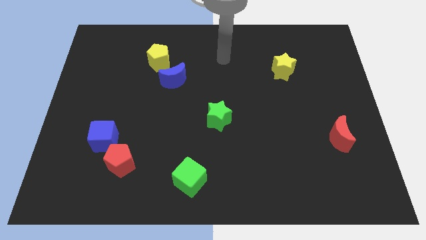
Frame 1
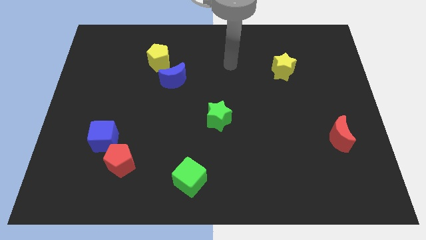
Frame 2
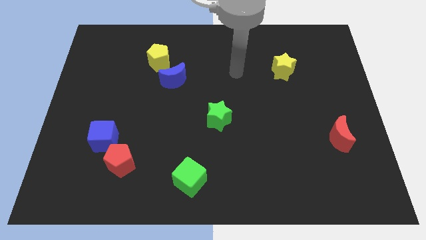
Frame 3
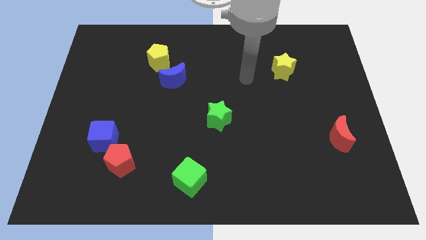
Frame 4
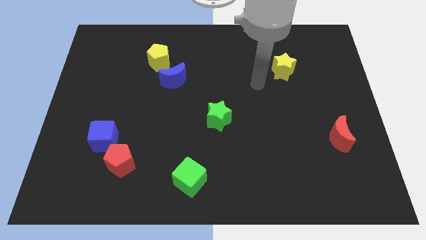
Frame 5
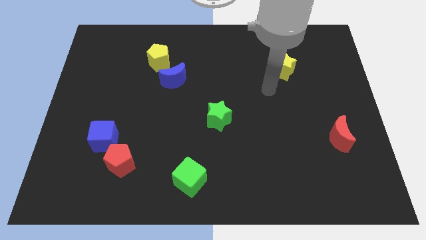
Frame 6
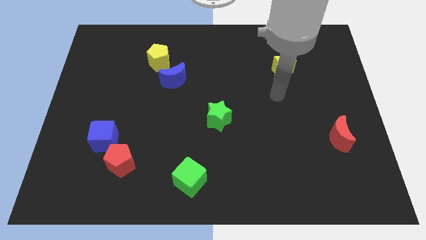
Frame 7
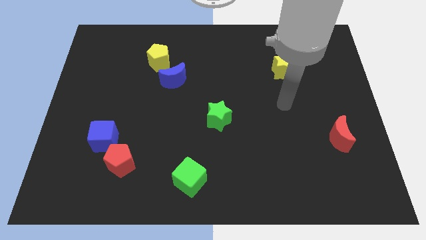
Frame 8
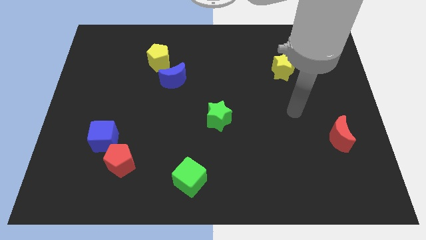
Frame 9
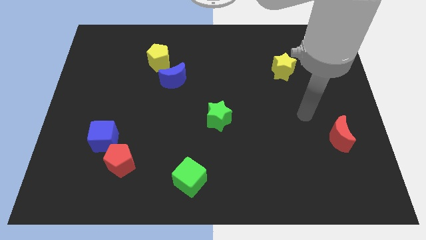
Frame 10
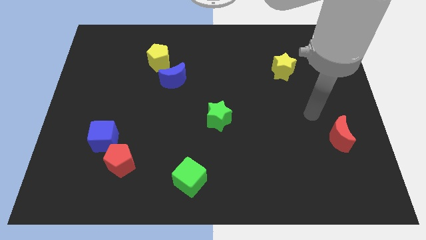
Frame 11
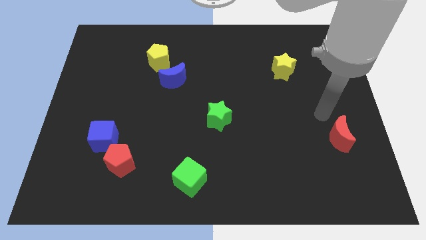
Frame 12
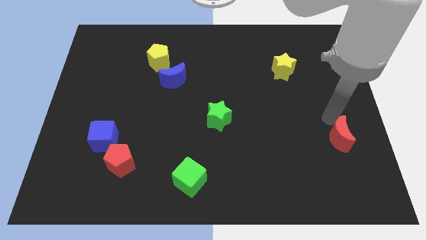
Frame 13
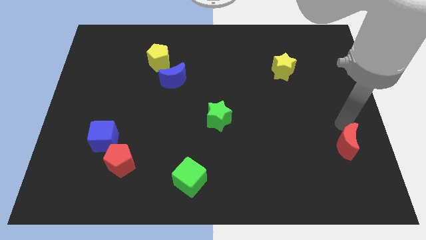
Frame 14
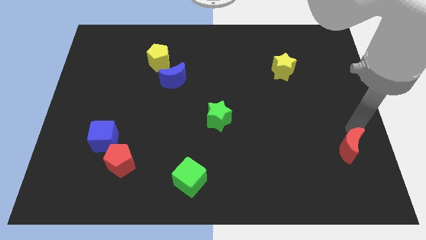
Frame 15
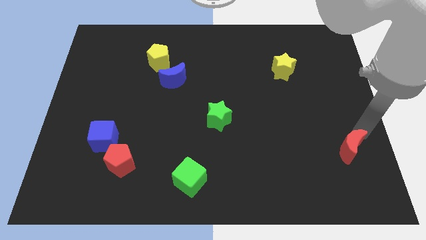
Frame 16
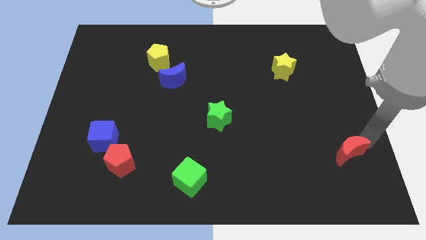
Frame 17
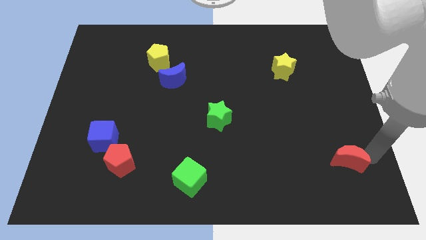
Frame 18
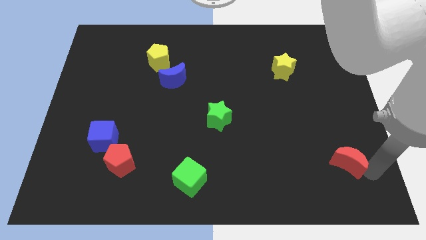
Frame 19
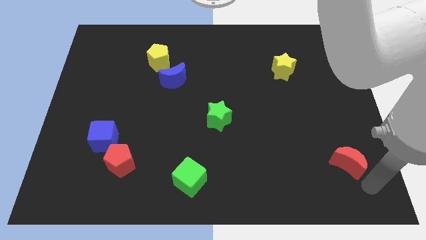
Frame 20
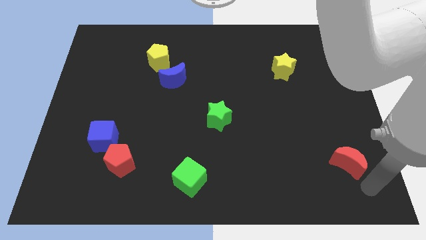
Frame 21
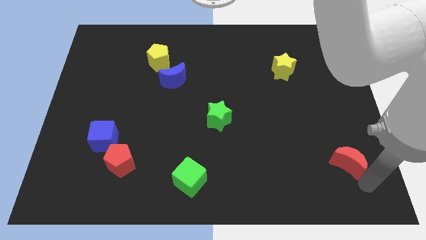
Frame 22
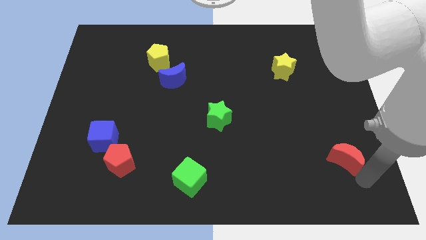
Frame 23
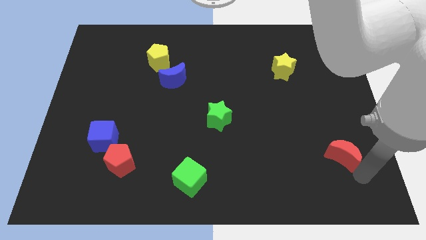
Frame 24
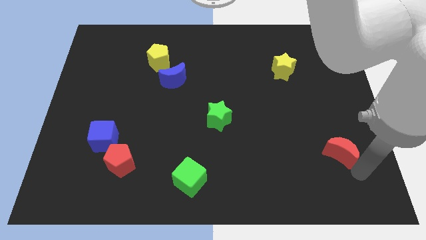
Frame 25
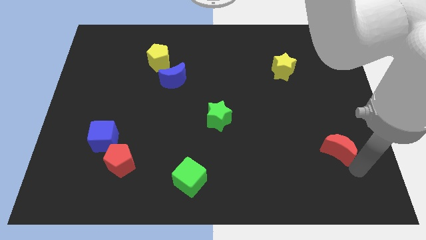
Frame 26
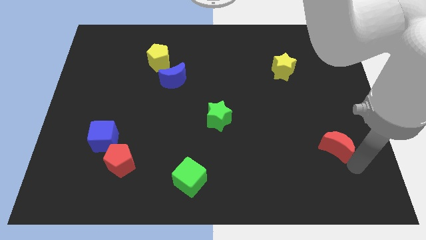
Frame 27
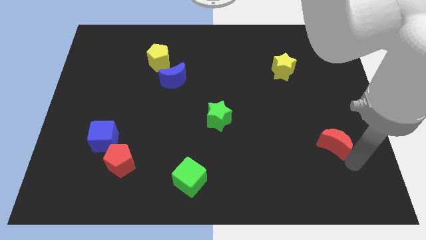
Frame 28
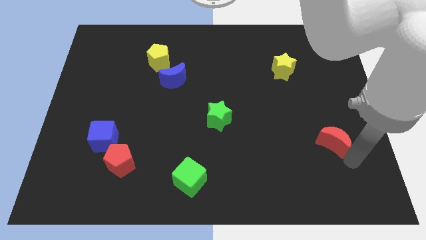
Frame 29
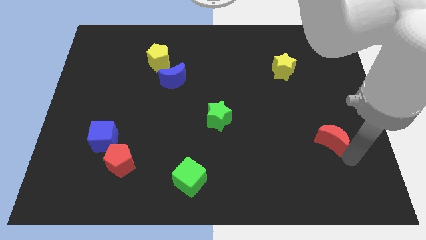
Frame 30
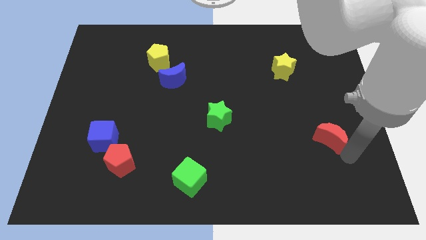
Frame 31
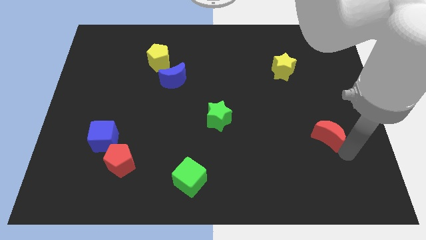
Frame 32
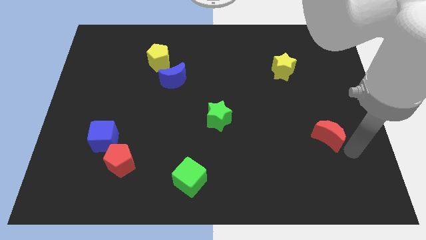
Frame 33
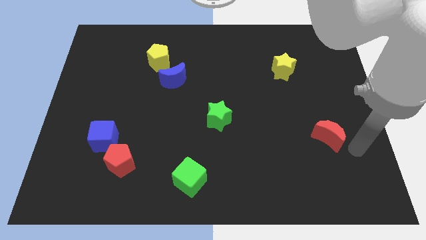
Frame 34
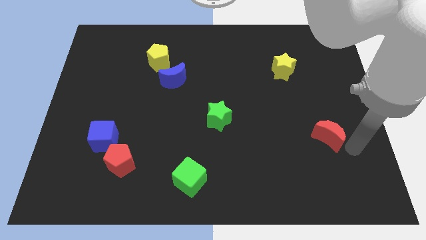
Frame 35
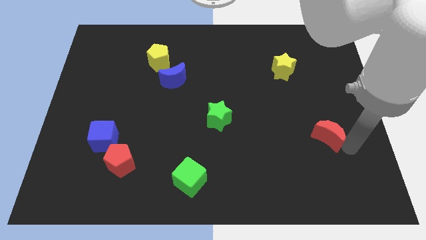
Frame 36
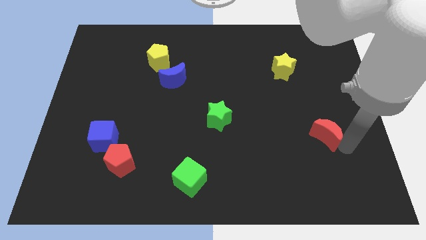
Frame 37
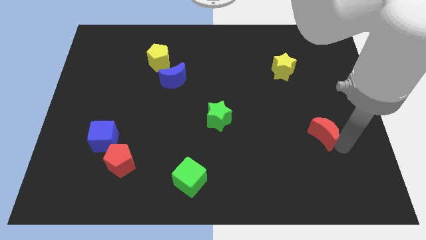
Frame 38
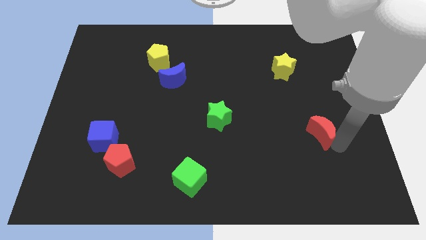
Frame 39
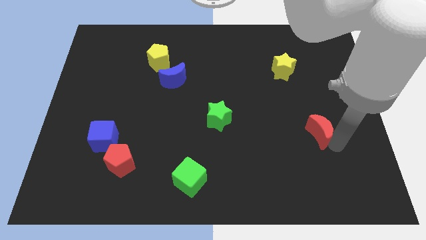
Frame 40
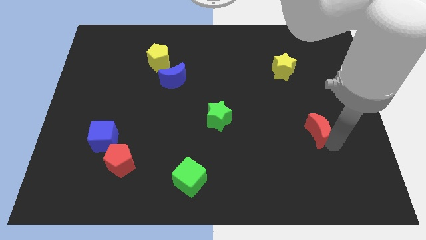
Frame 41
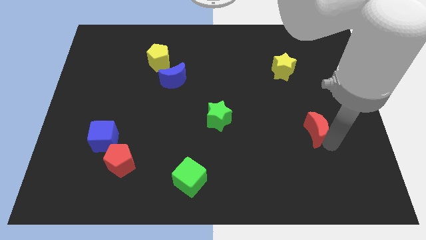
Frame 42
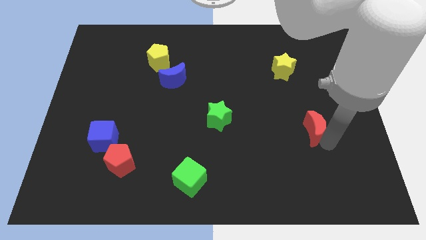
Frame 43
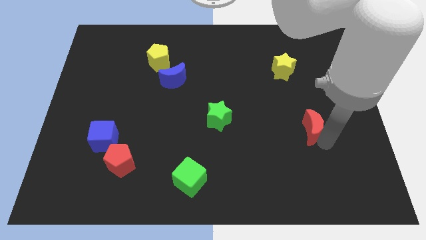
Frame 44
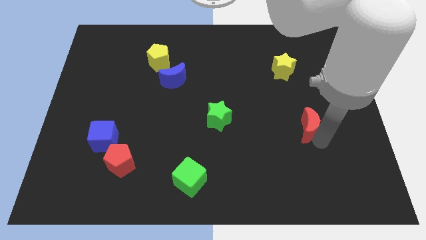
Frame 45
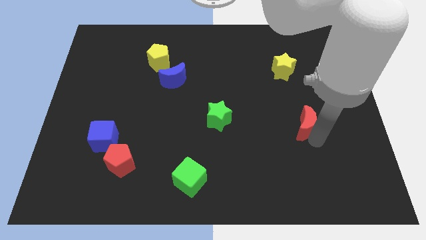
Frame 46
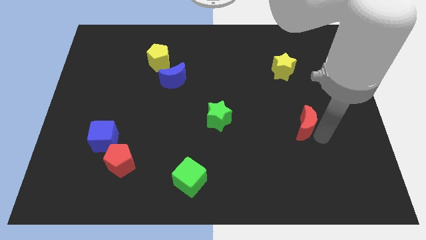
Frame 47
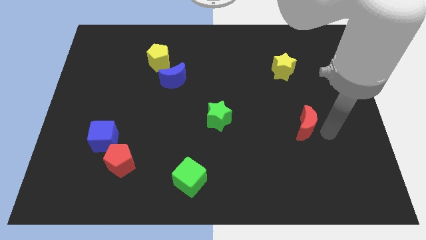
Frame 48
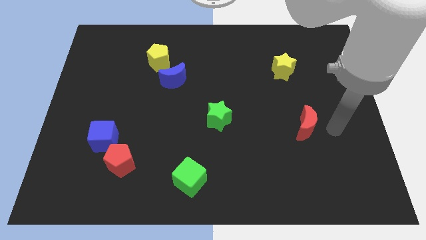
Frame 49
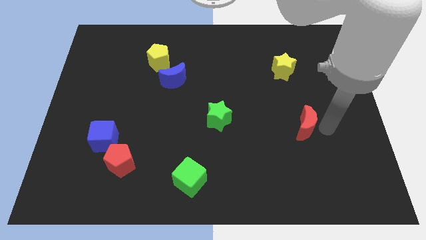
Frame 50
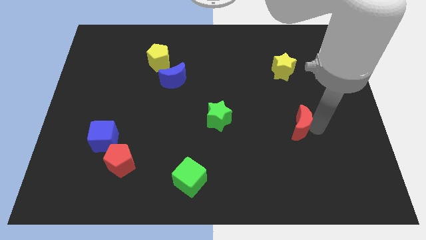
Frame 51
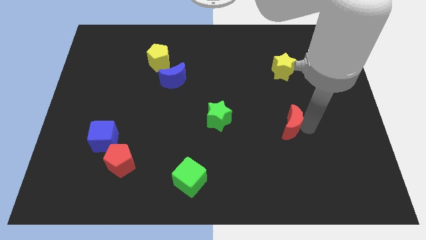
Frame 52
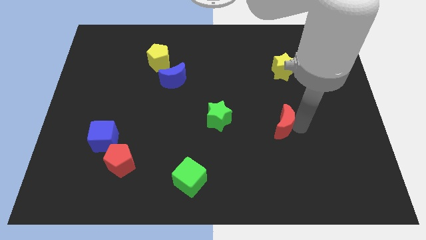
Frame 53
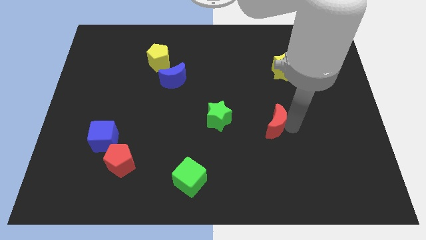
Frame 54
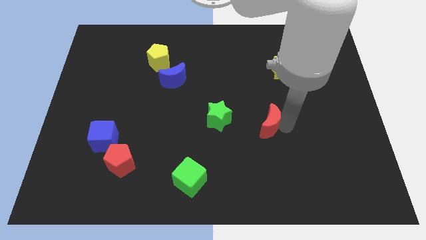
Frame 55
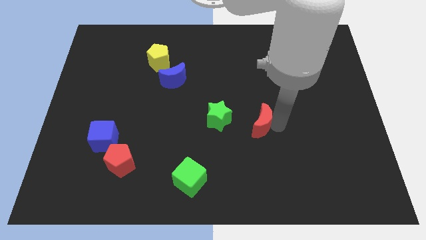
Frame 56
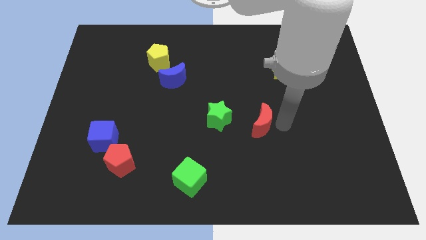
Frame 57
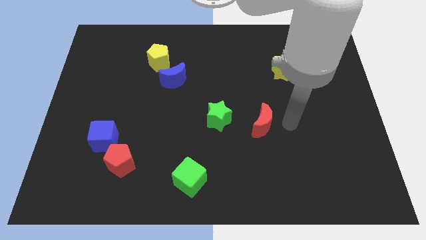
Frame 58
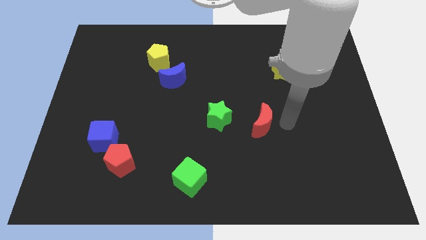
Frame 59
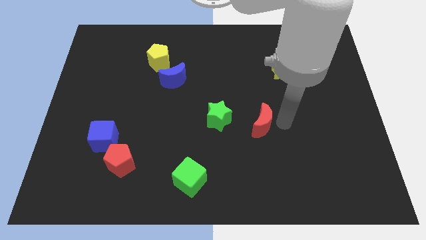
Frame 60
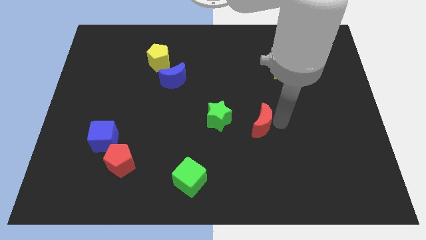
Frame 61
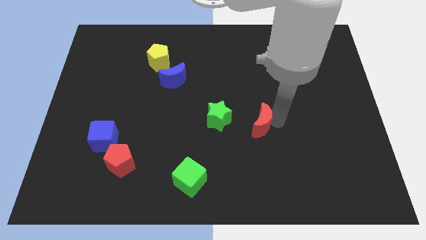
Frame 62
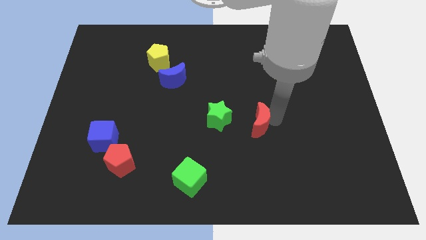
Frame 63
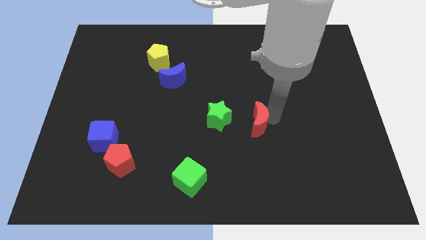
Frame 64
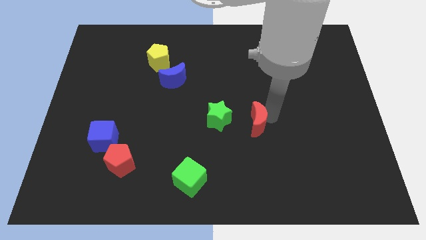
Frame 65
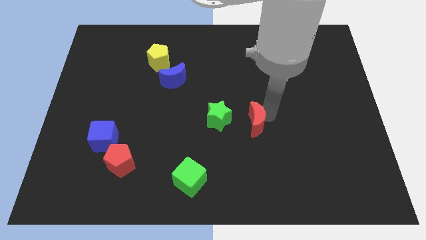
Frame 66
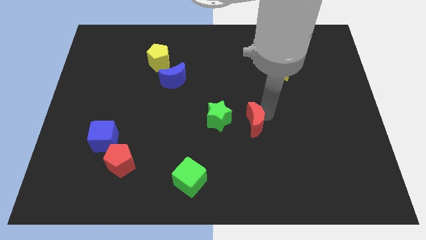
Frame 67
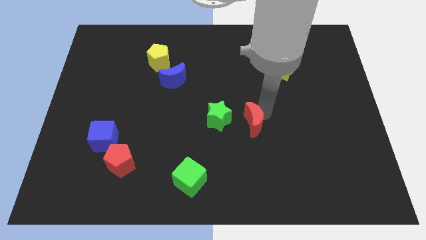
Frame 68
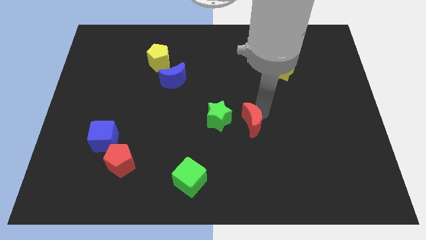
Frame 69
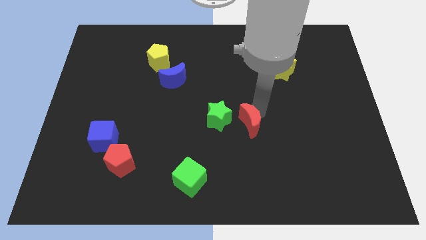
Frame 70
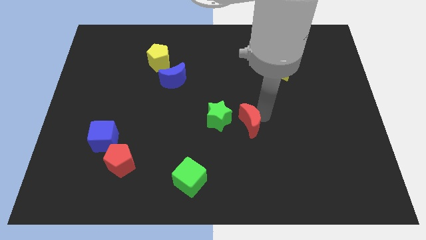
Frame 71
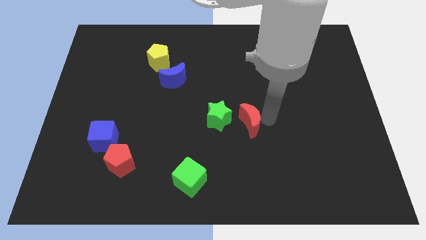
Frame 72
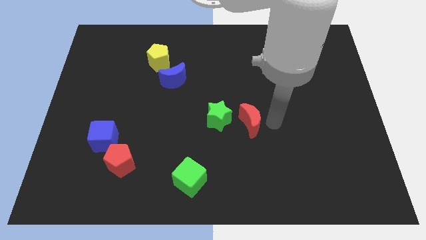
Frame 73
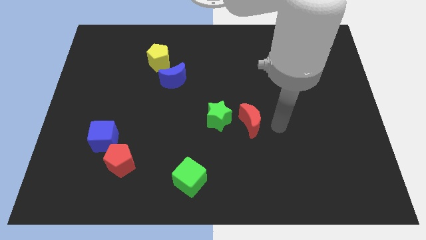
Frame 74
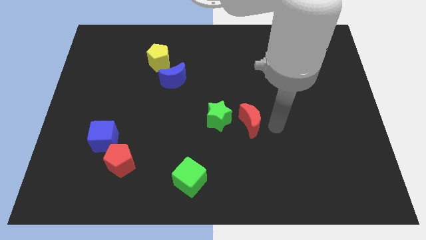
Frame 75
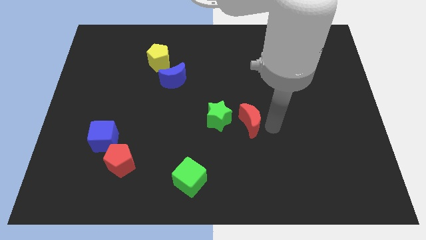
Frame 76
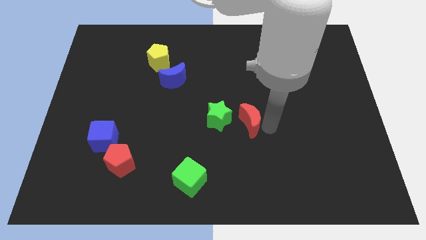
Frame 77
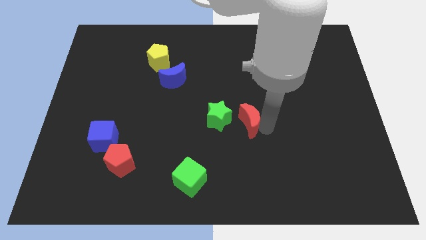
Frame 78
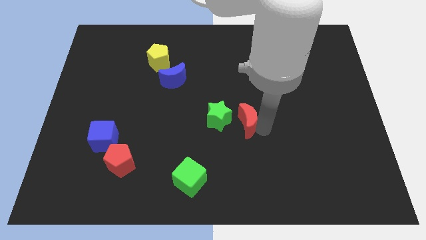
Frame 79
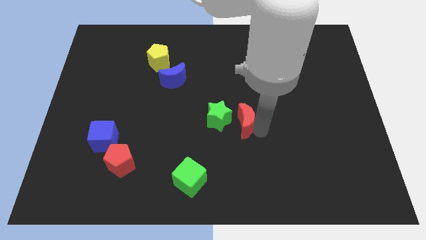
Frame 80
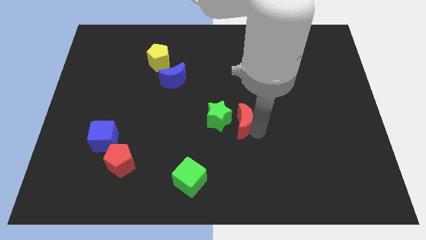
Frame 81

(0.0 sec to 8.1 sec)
slide the red moon next to the green star
